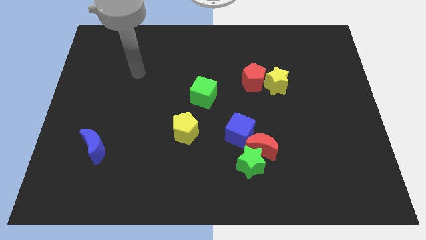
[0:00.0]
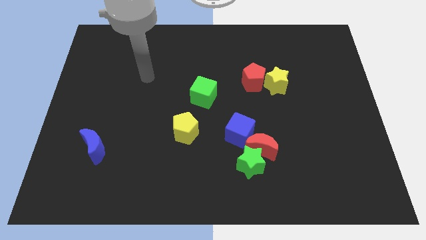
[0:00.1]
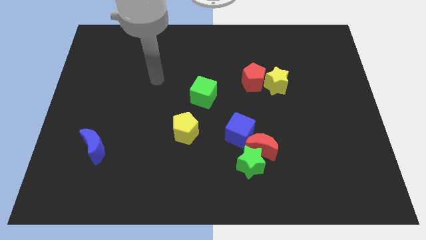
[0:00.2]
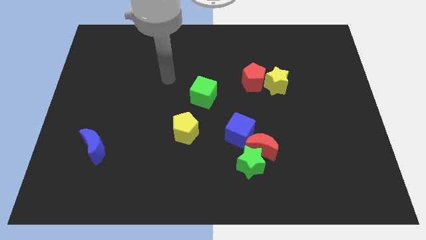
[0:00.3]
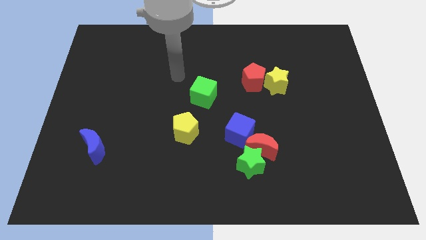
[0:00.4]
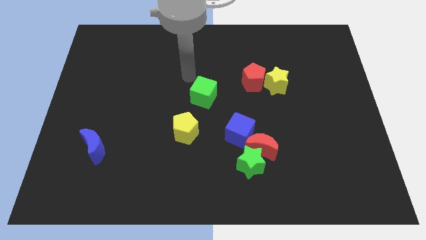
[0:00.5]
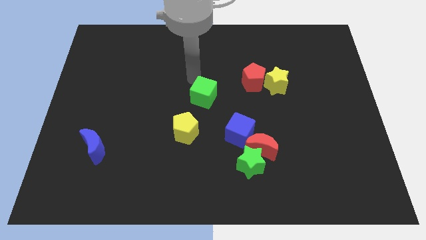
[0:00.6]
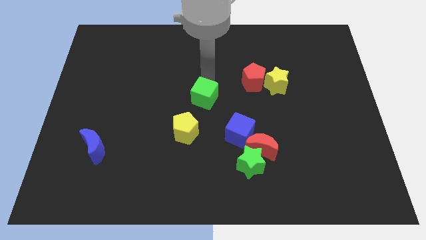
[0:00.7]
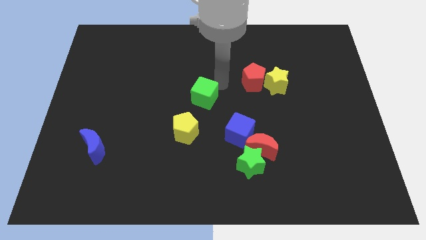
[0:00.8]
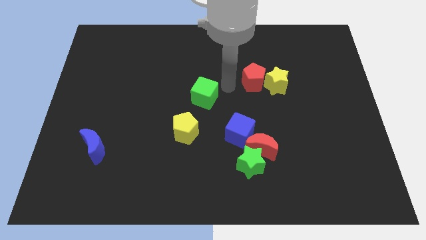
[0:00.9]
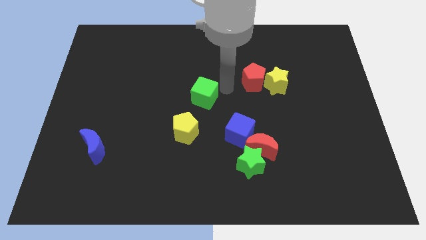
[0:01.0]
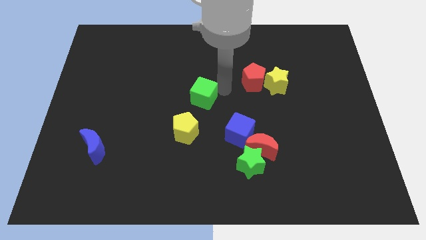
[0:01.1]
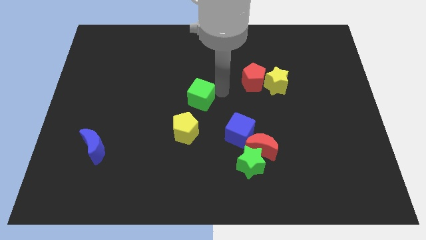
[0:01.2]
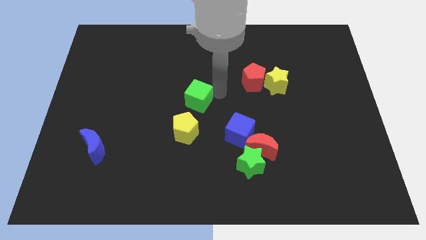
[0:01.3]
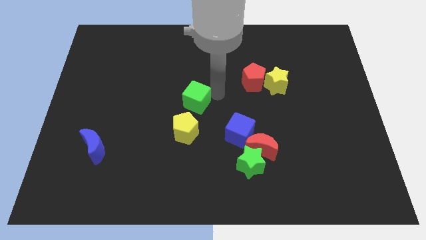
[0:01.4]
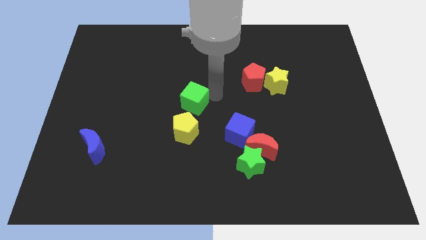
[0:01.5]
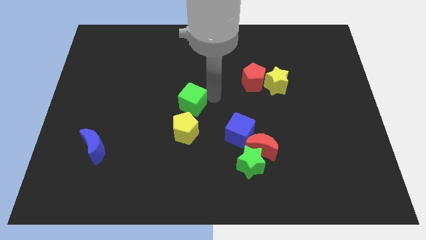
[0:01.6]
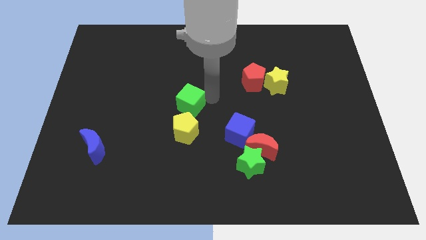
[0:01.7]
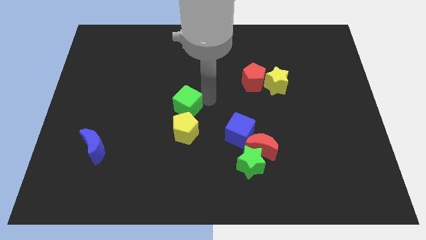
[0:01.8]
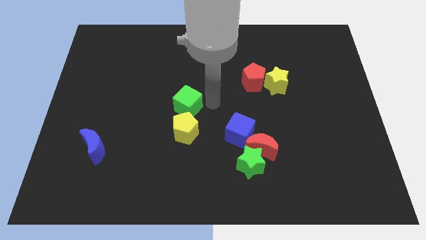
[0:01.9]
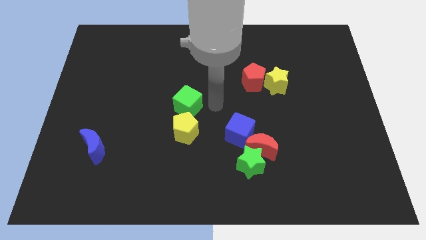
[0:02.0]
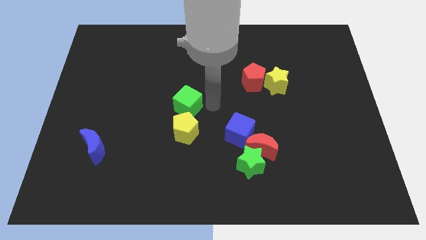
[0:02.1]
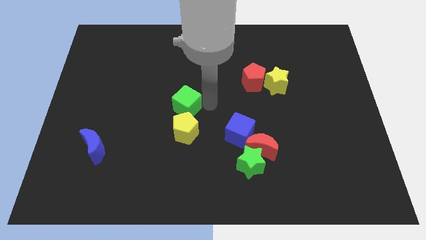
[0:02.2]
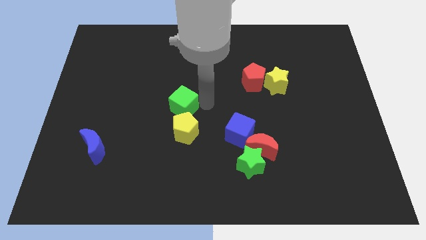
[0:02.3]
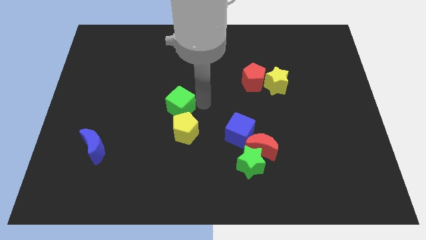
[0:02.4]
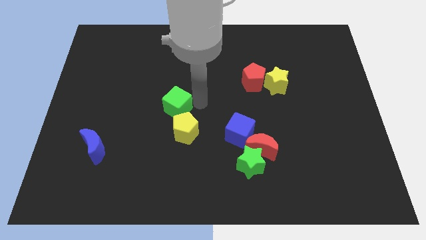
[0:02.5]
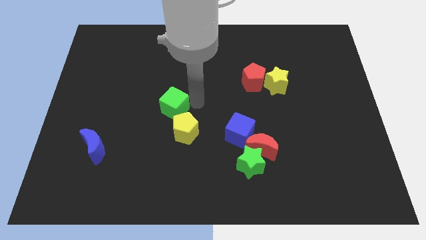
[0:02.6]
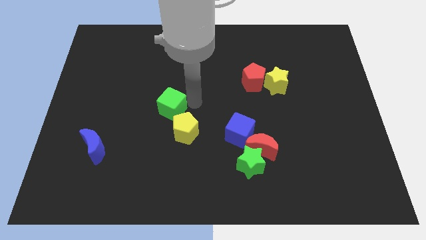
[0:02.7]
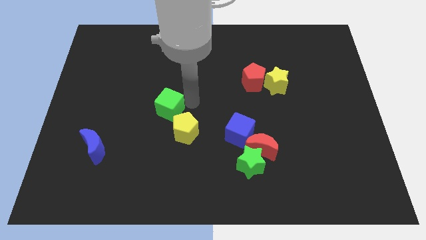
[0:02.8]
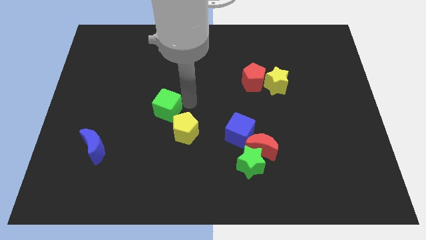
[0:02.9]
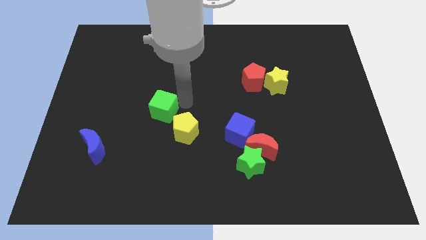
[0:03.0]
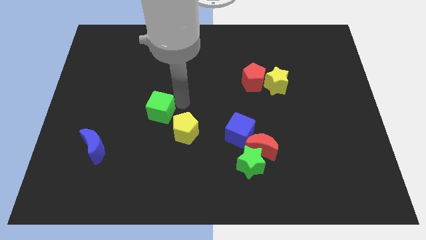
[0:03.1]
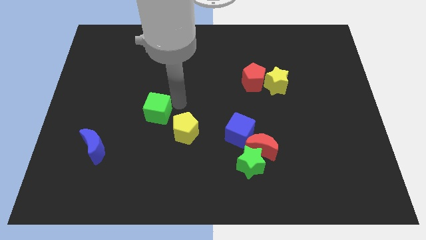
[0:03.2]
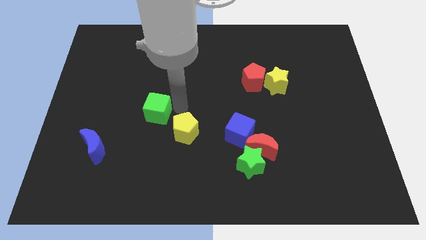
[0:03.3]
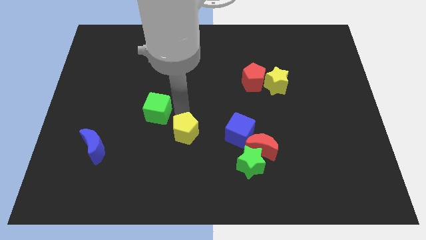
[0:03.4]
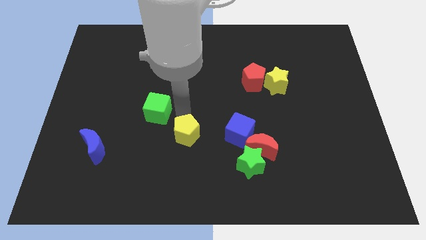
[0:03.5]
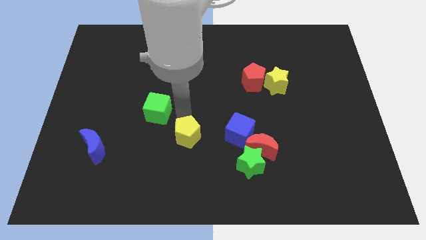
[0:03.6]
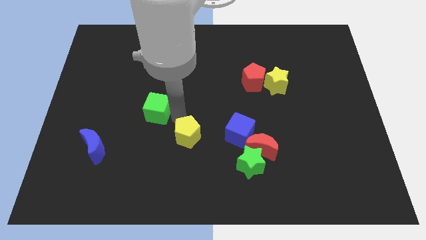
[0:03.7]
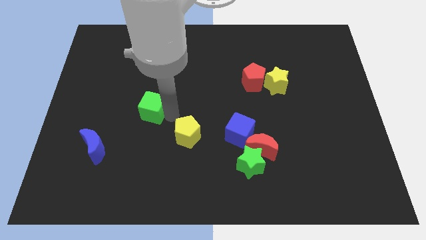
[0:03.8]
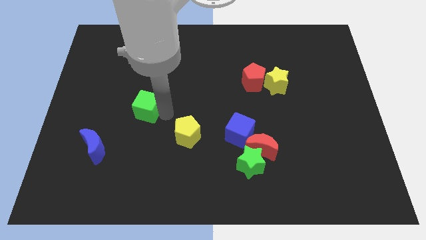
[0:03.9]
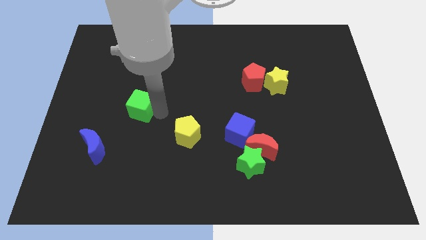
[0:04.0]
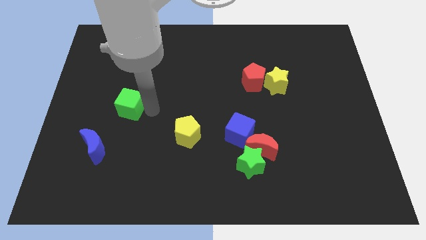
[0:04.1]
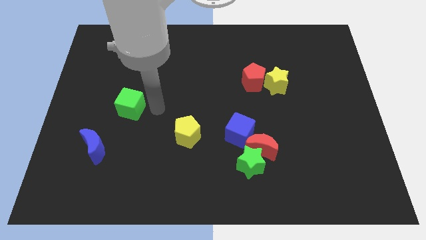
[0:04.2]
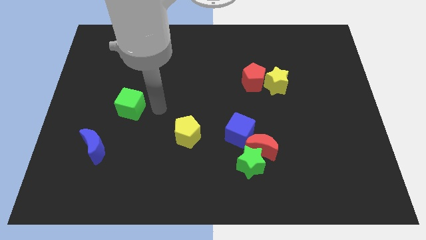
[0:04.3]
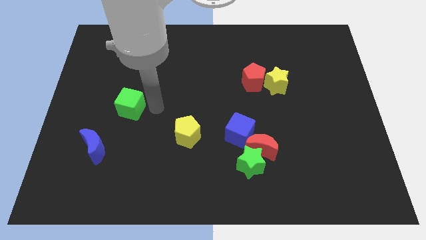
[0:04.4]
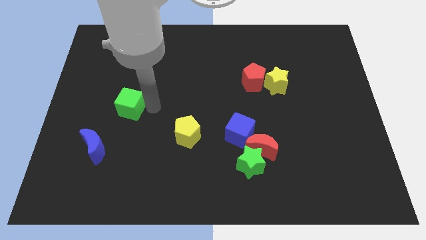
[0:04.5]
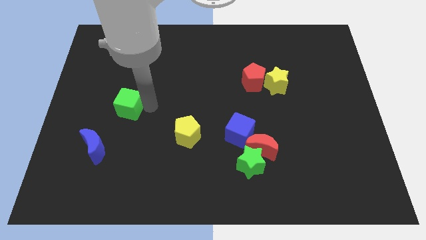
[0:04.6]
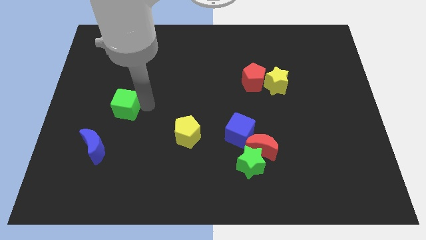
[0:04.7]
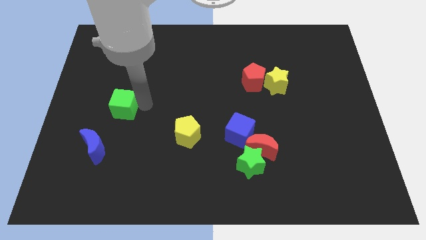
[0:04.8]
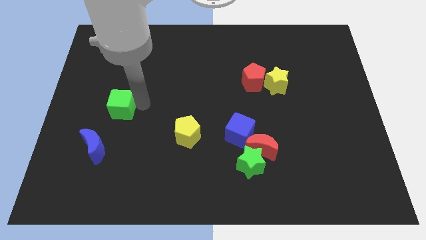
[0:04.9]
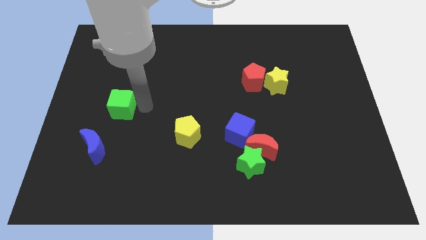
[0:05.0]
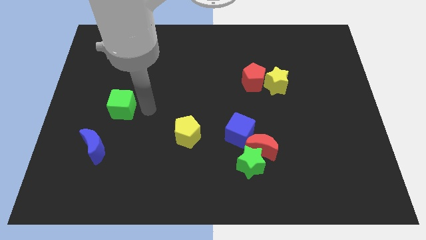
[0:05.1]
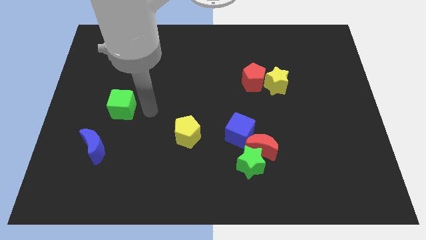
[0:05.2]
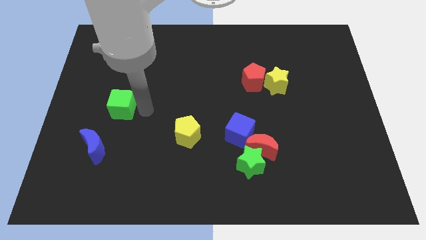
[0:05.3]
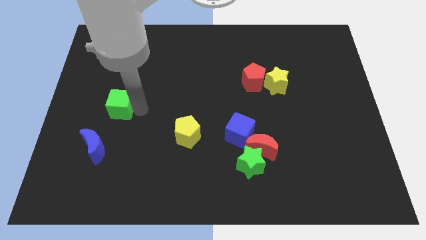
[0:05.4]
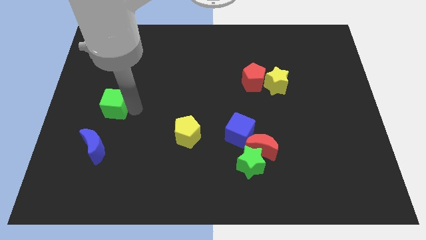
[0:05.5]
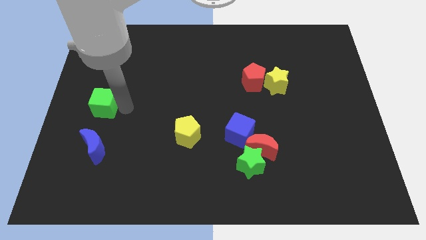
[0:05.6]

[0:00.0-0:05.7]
move the green cube to the center left
